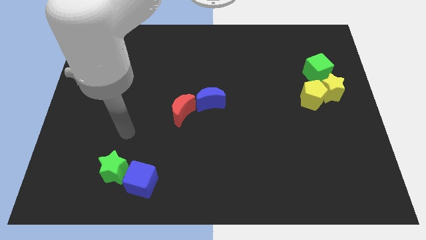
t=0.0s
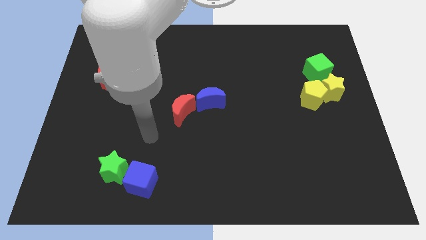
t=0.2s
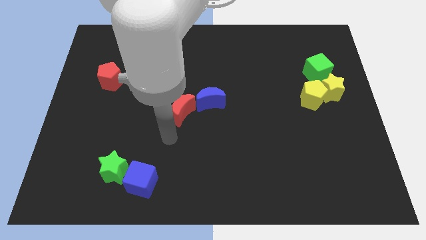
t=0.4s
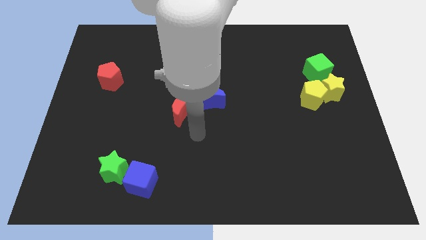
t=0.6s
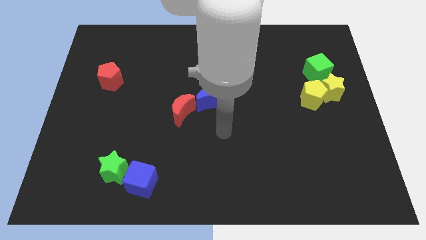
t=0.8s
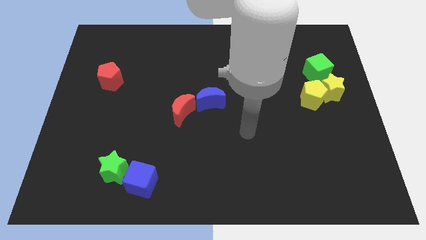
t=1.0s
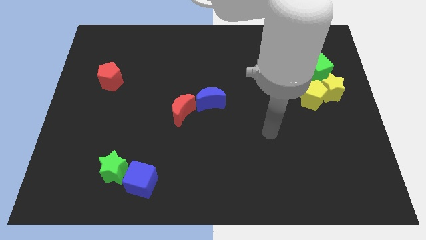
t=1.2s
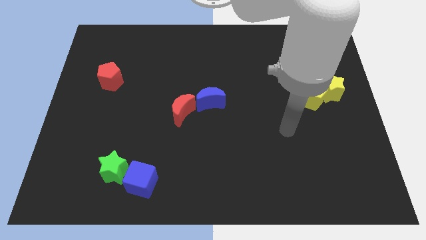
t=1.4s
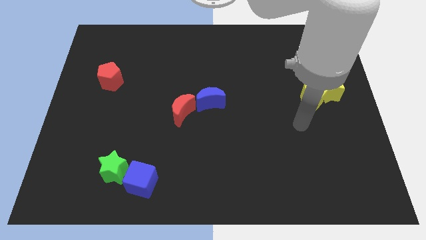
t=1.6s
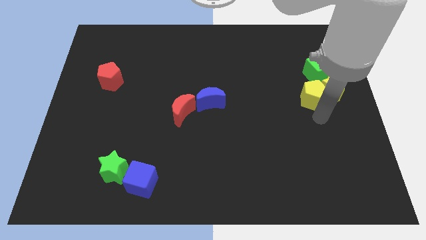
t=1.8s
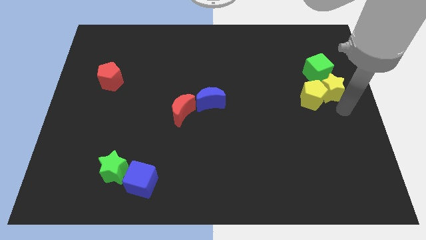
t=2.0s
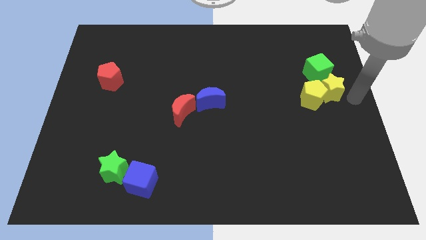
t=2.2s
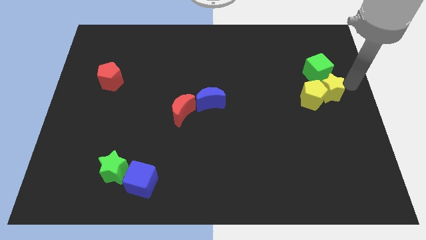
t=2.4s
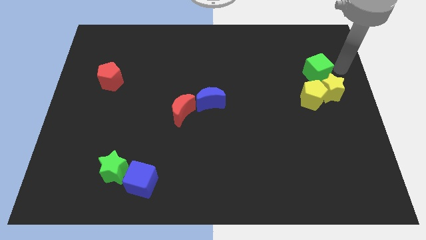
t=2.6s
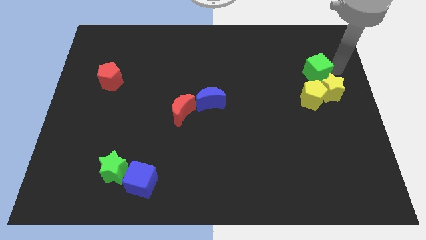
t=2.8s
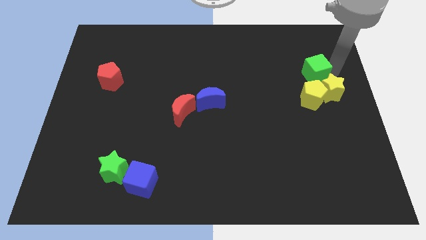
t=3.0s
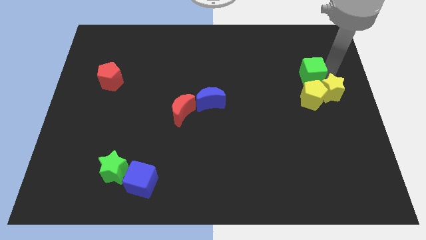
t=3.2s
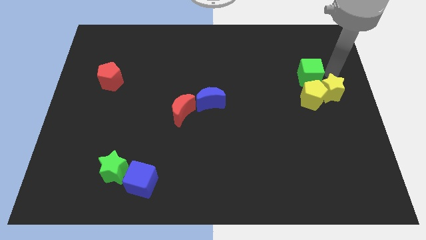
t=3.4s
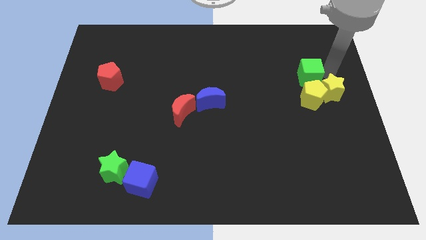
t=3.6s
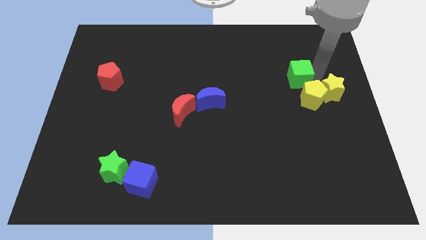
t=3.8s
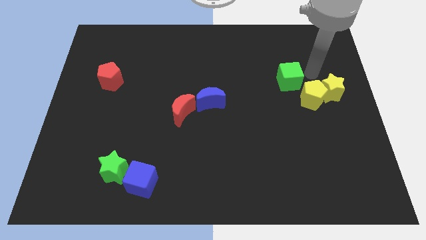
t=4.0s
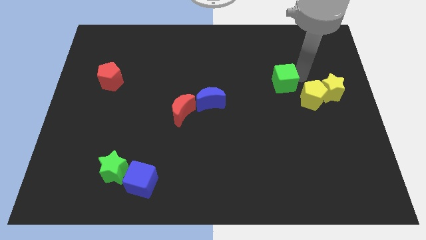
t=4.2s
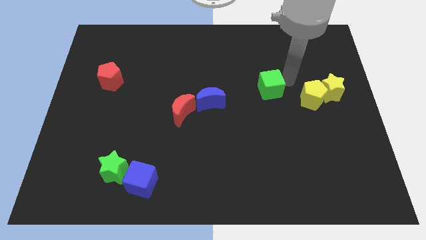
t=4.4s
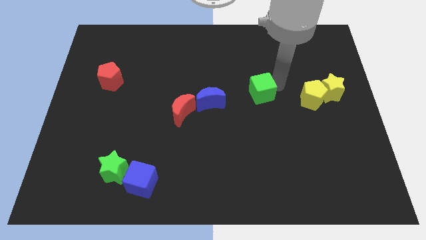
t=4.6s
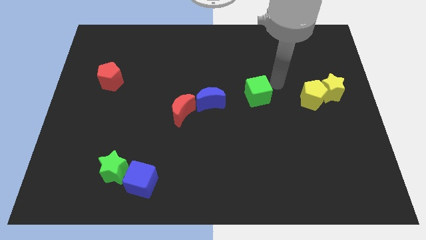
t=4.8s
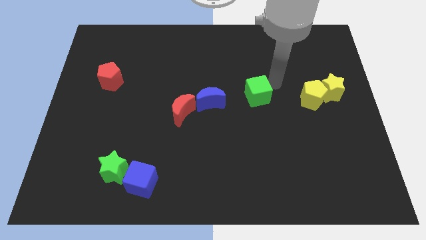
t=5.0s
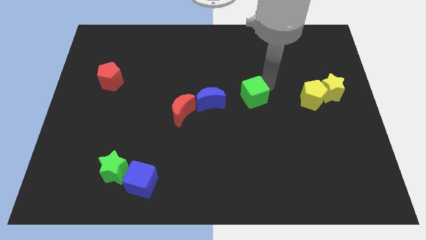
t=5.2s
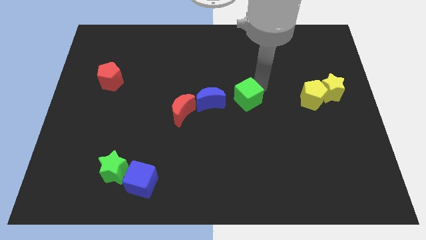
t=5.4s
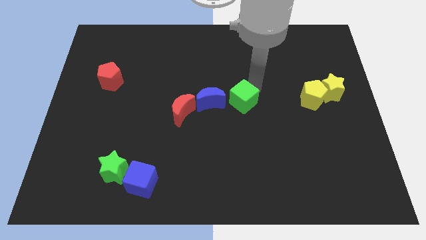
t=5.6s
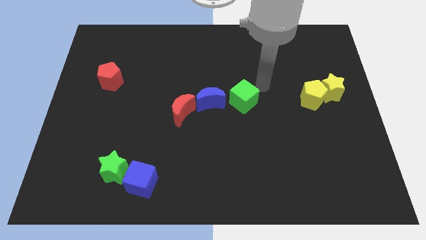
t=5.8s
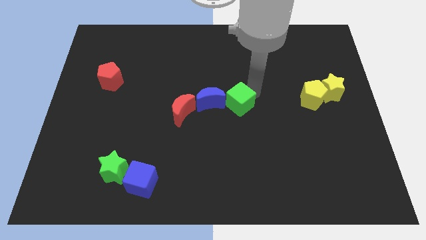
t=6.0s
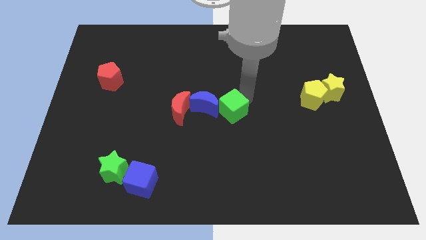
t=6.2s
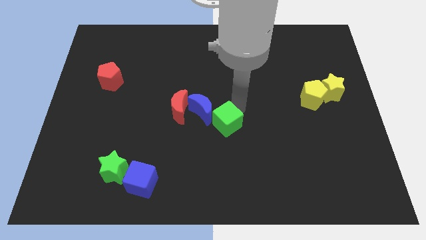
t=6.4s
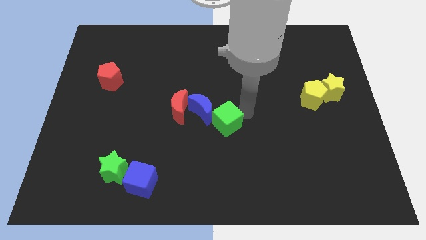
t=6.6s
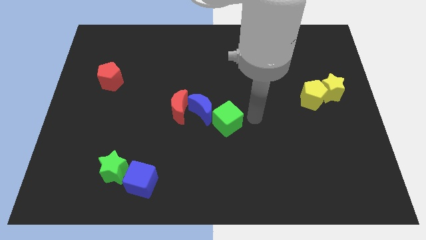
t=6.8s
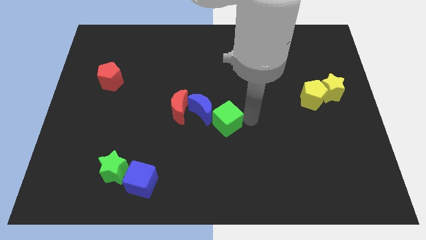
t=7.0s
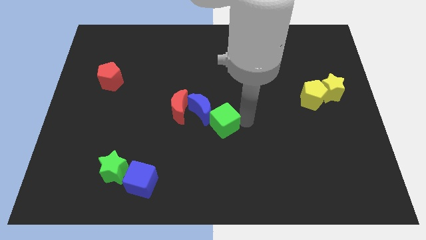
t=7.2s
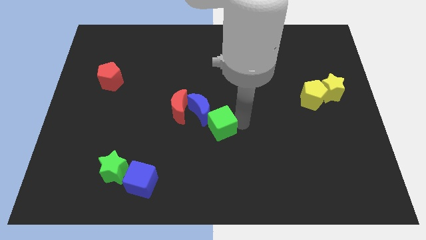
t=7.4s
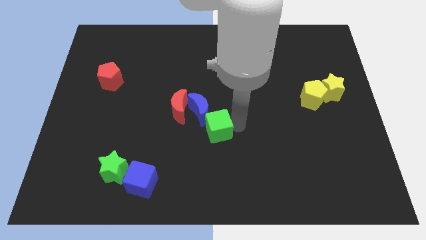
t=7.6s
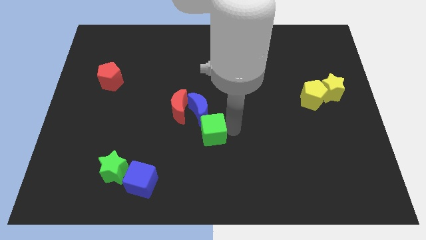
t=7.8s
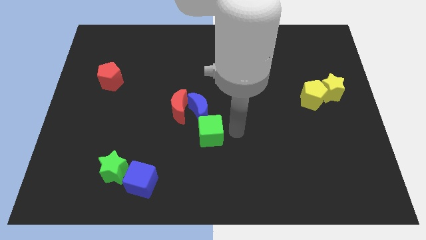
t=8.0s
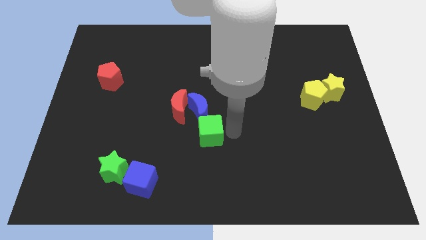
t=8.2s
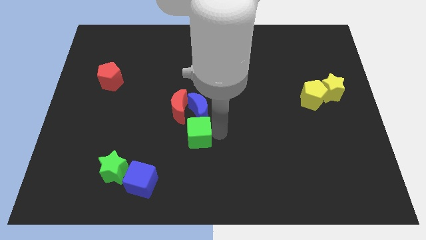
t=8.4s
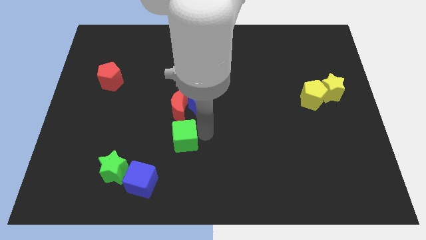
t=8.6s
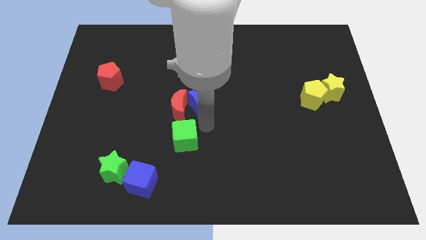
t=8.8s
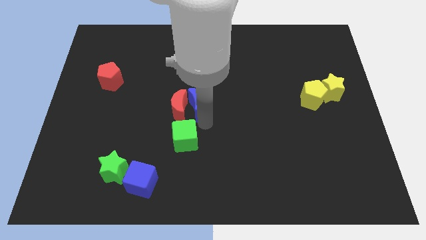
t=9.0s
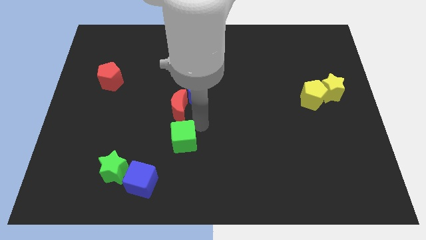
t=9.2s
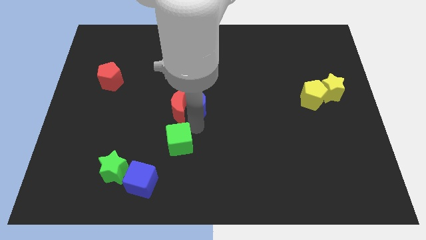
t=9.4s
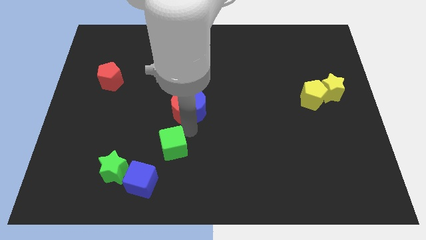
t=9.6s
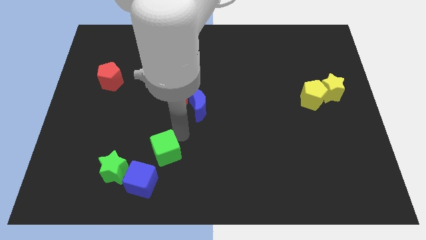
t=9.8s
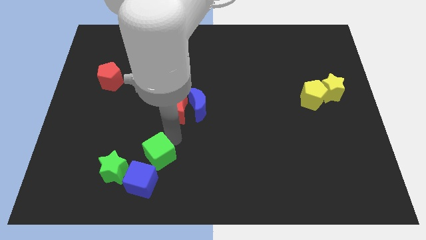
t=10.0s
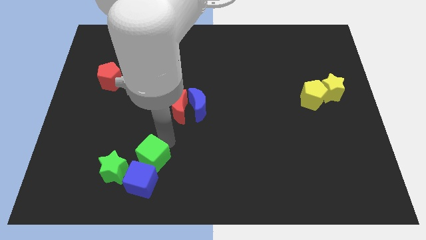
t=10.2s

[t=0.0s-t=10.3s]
slide the green cube to the blue cube

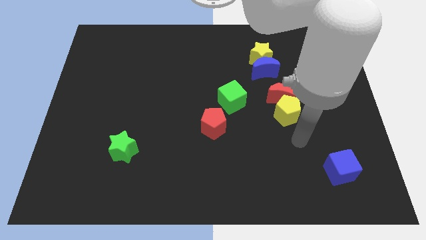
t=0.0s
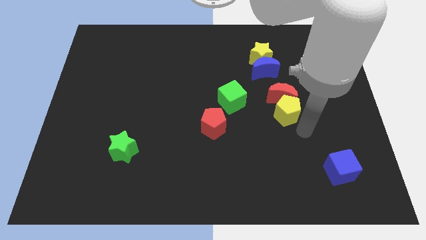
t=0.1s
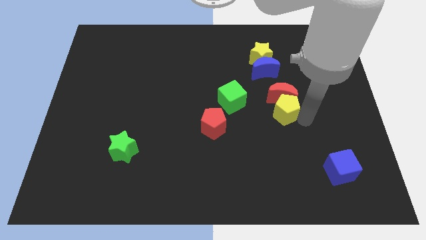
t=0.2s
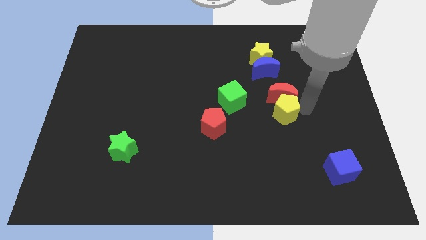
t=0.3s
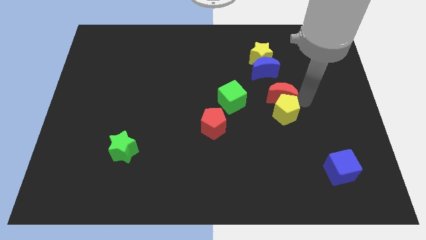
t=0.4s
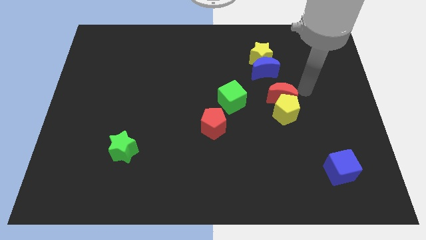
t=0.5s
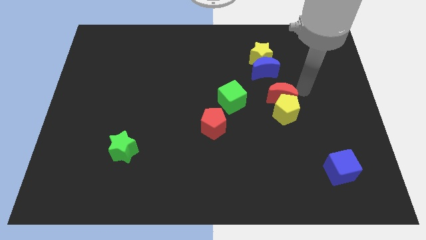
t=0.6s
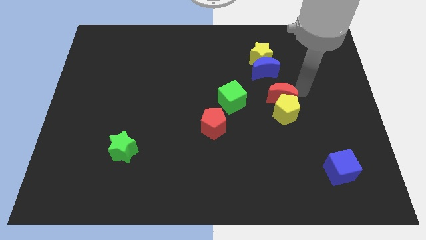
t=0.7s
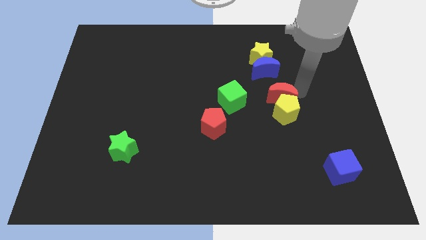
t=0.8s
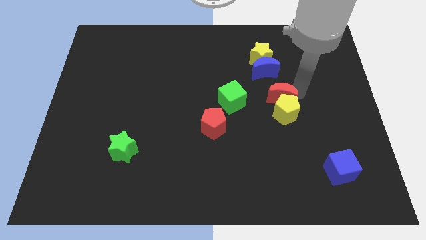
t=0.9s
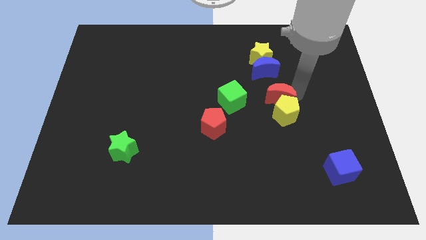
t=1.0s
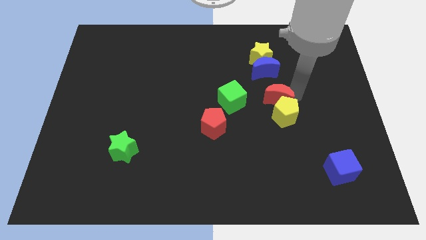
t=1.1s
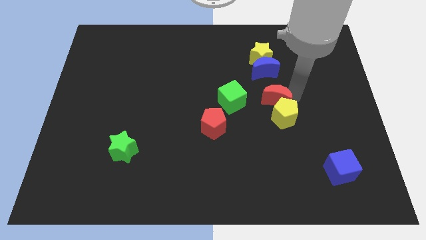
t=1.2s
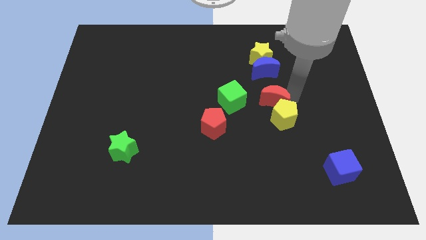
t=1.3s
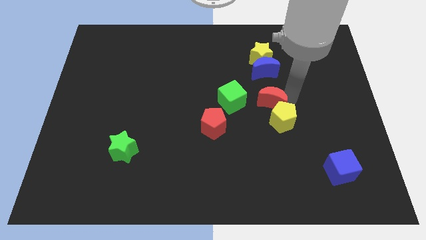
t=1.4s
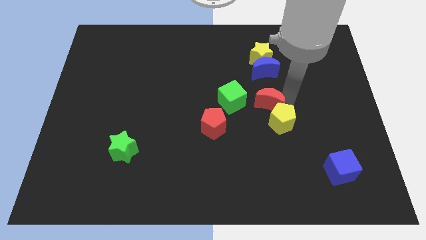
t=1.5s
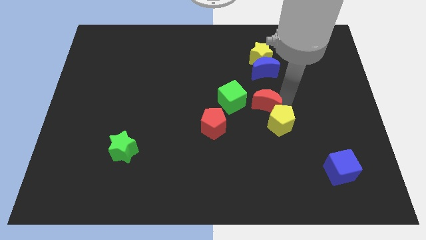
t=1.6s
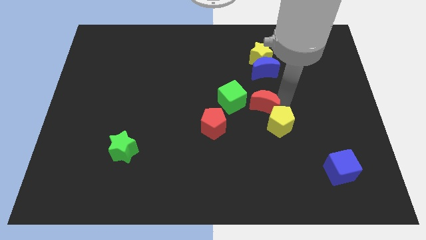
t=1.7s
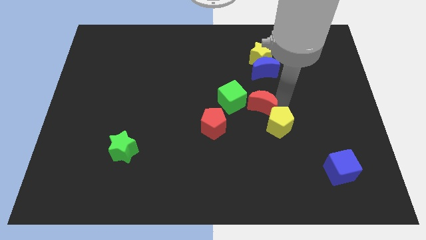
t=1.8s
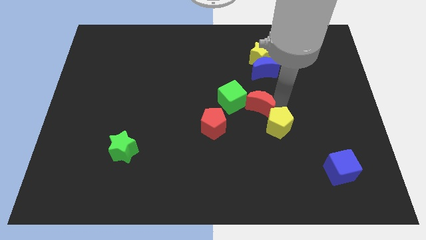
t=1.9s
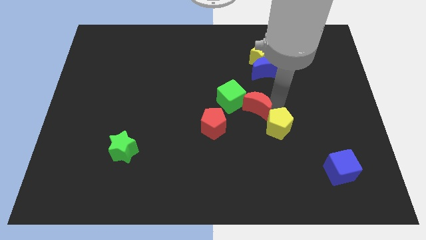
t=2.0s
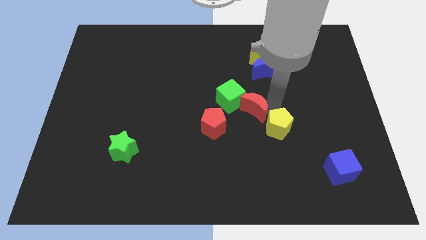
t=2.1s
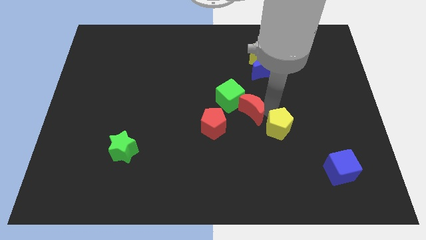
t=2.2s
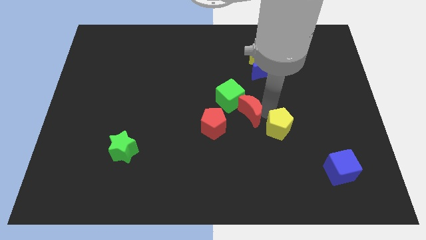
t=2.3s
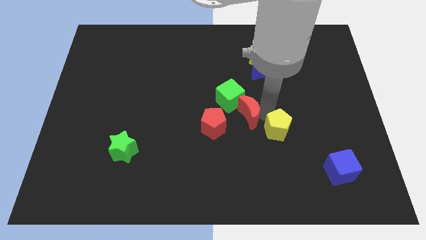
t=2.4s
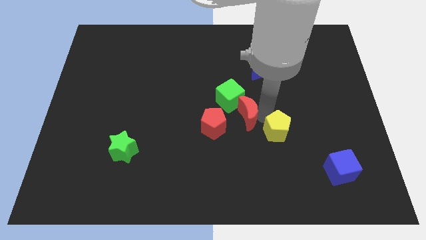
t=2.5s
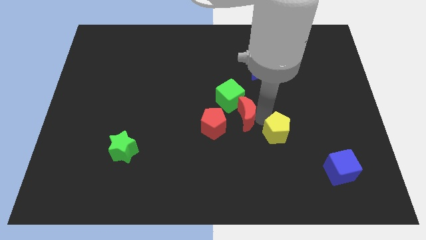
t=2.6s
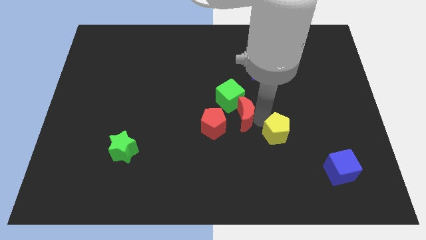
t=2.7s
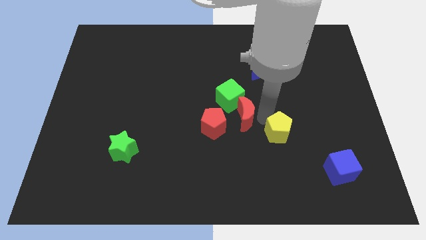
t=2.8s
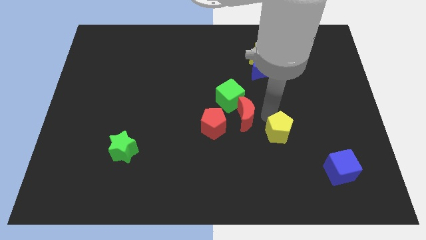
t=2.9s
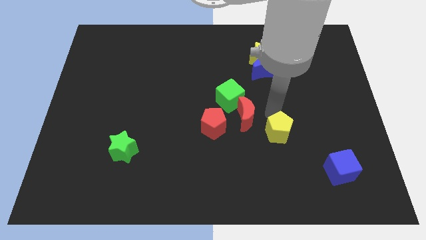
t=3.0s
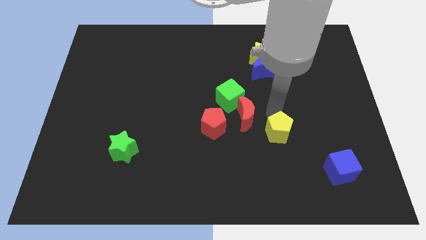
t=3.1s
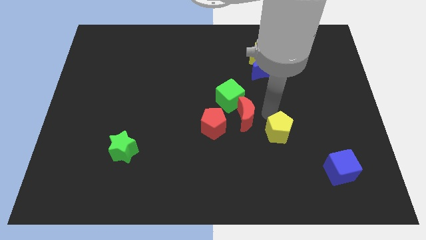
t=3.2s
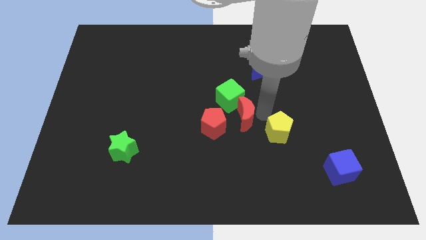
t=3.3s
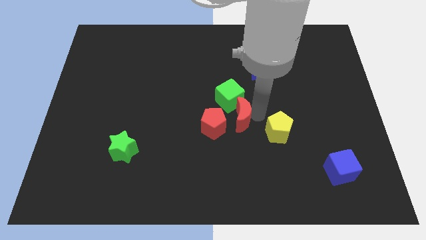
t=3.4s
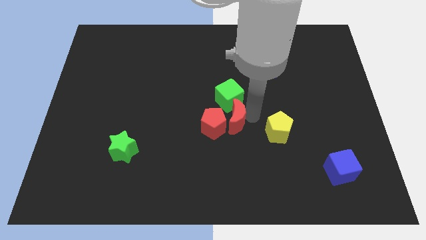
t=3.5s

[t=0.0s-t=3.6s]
move the red moon next to the red pentagon
